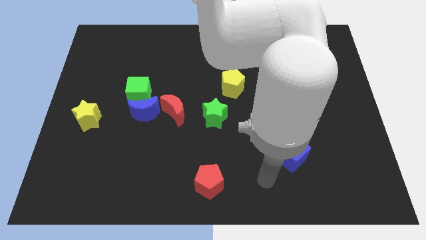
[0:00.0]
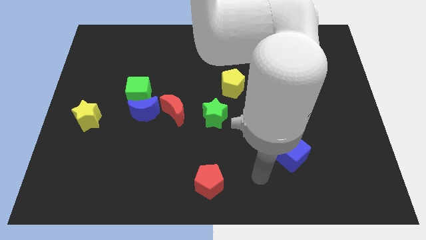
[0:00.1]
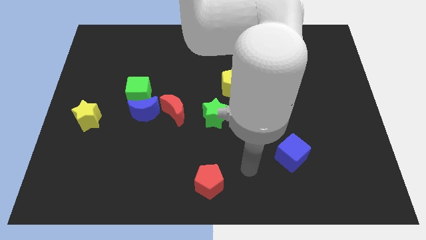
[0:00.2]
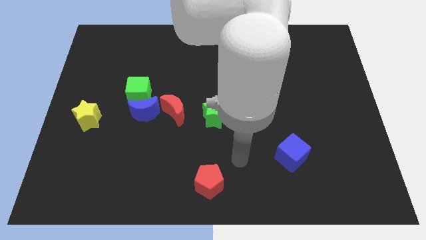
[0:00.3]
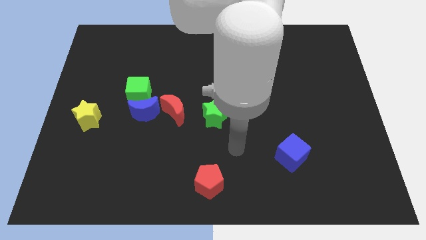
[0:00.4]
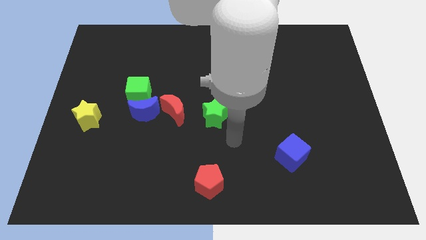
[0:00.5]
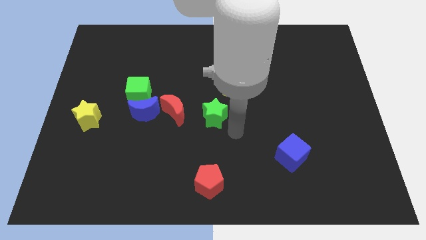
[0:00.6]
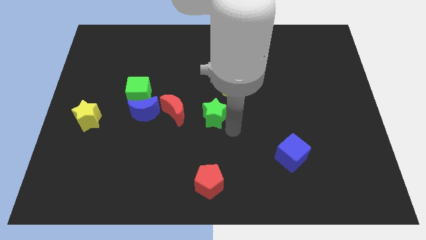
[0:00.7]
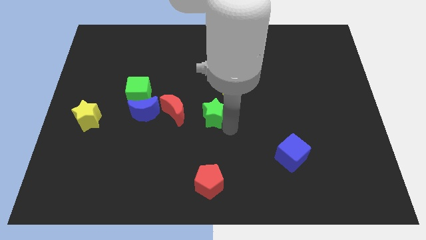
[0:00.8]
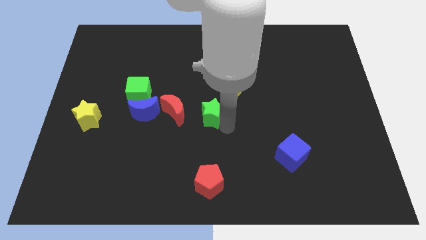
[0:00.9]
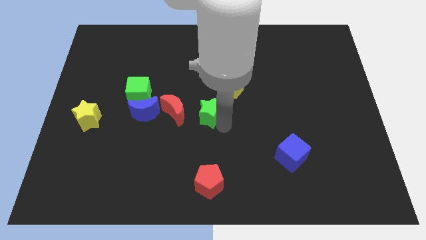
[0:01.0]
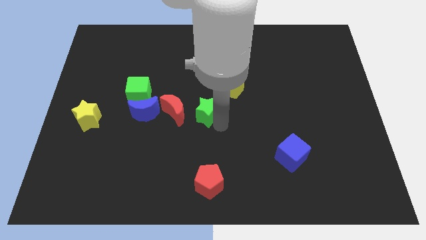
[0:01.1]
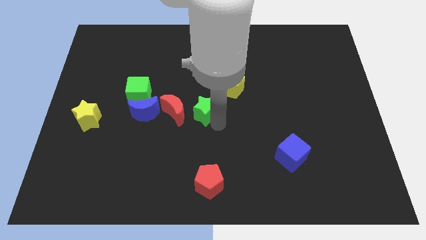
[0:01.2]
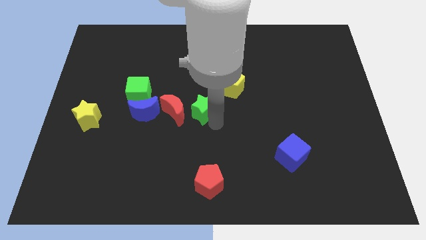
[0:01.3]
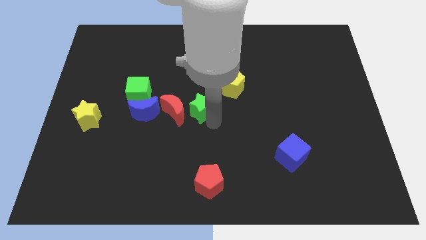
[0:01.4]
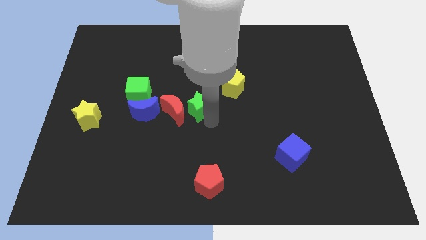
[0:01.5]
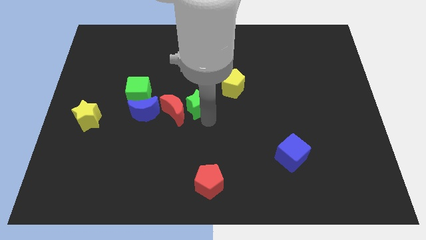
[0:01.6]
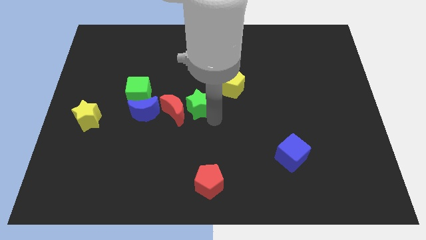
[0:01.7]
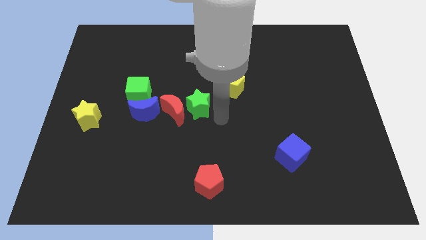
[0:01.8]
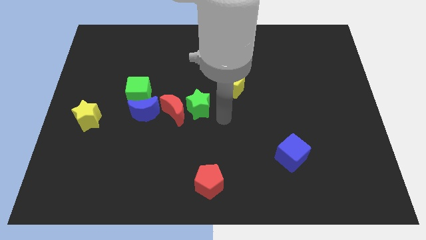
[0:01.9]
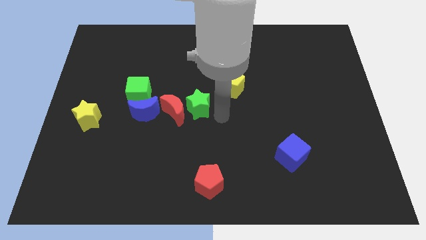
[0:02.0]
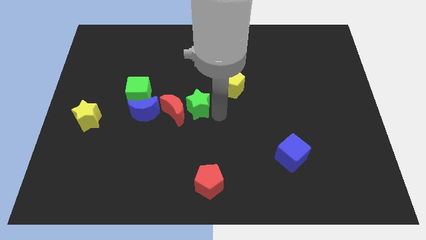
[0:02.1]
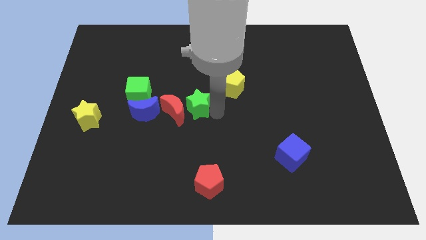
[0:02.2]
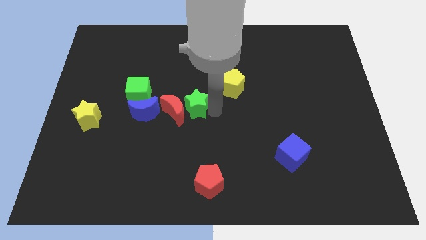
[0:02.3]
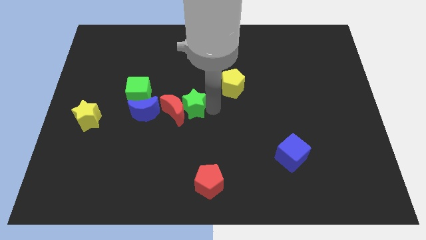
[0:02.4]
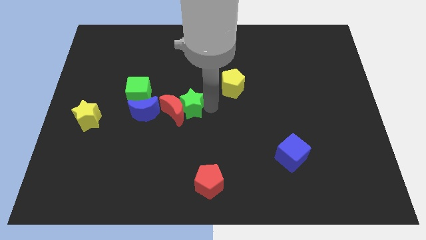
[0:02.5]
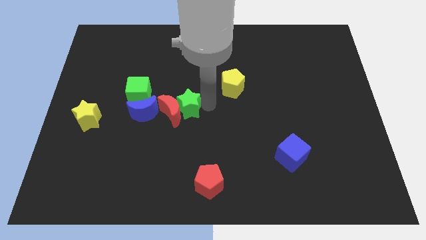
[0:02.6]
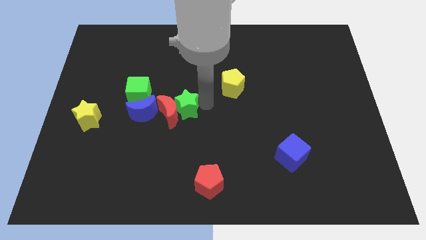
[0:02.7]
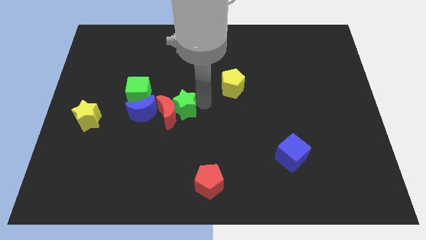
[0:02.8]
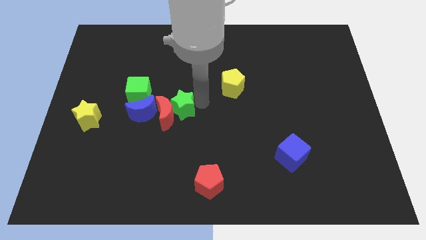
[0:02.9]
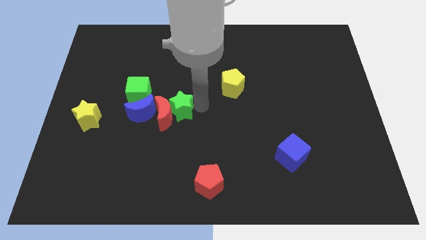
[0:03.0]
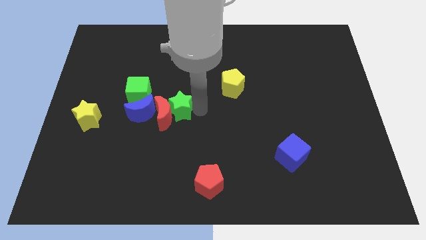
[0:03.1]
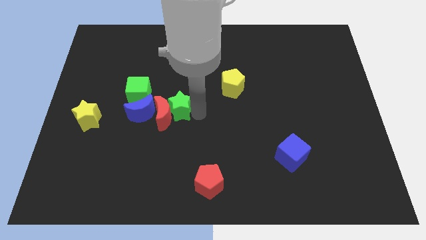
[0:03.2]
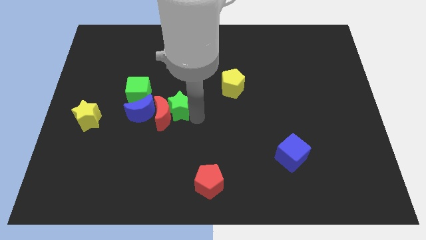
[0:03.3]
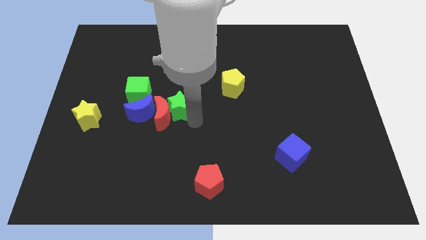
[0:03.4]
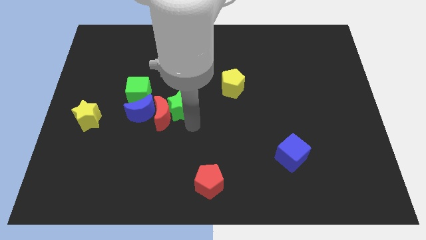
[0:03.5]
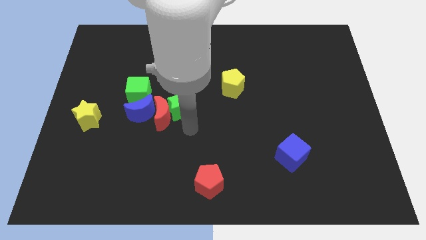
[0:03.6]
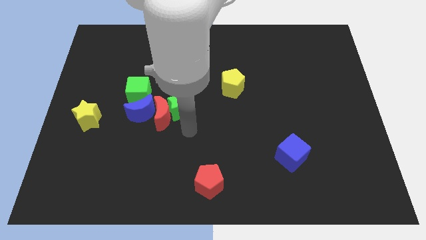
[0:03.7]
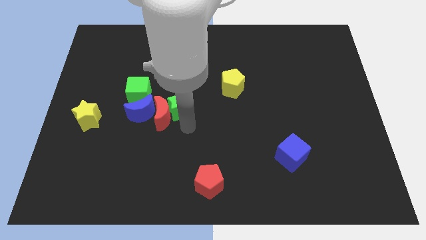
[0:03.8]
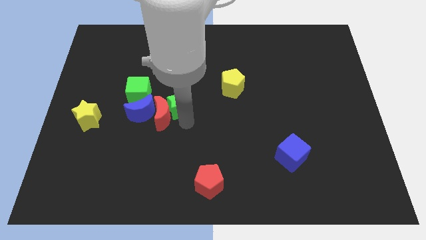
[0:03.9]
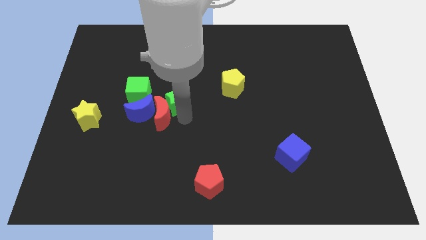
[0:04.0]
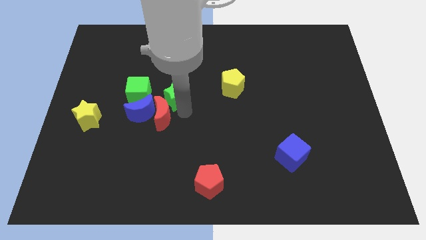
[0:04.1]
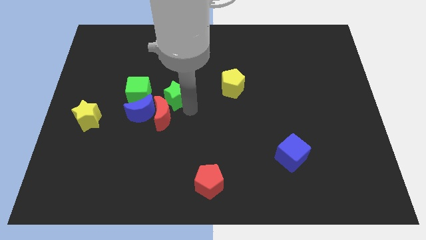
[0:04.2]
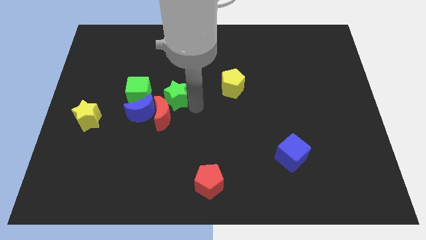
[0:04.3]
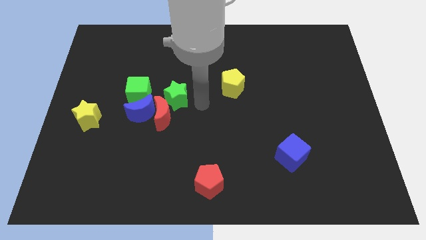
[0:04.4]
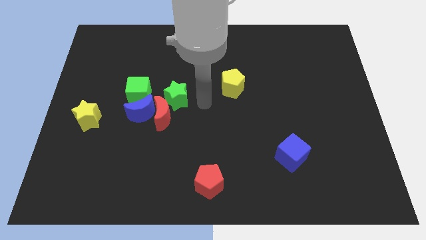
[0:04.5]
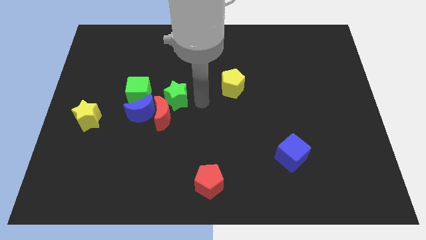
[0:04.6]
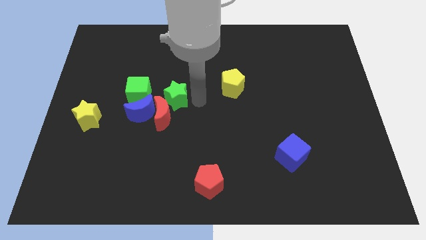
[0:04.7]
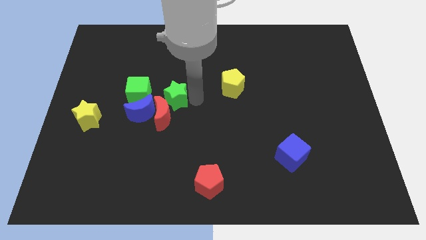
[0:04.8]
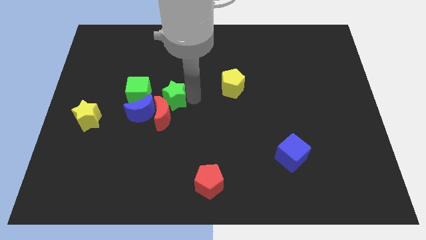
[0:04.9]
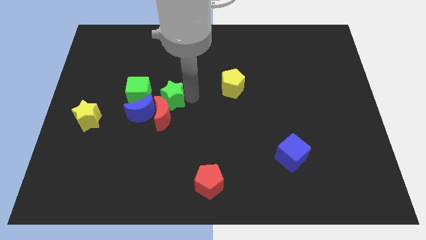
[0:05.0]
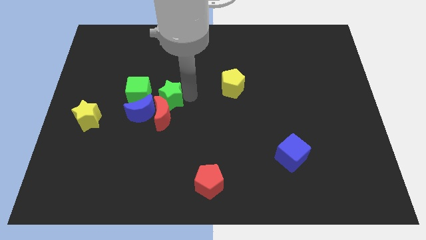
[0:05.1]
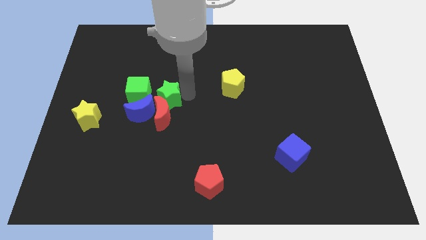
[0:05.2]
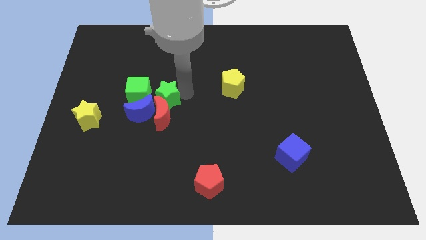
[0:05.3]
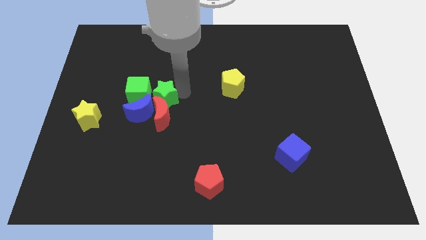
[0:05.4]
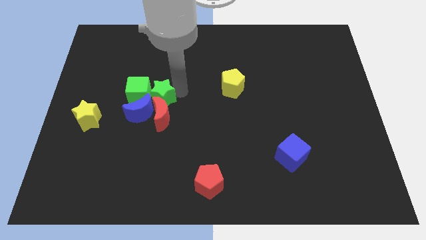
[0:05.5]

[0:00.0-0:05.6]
put the green star to the green cube

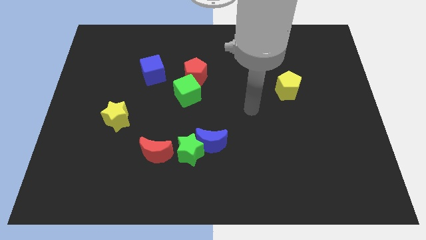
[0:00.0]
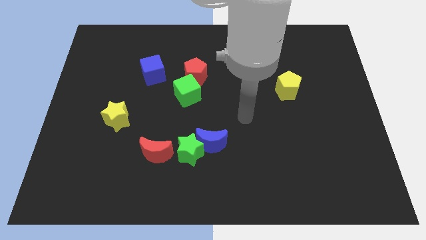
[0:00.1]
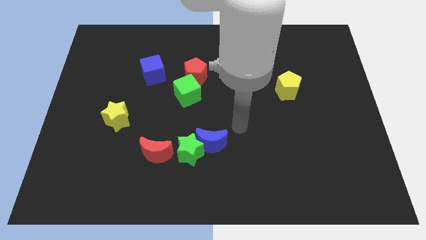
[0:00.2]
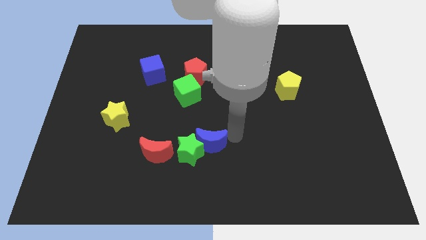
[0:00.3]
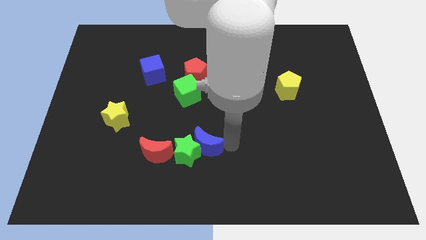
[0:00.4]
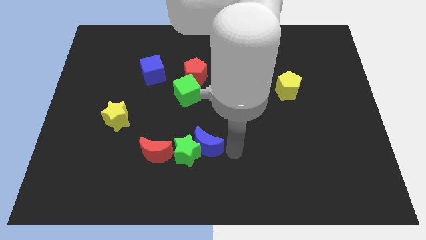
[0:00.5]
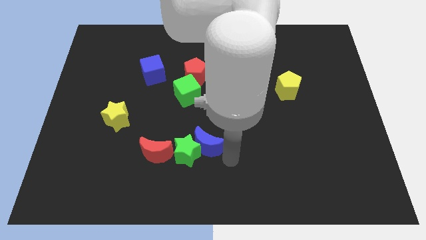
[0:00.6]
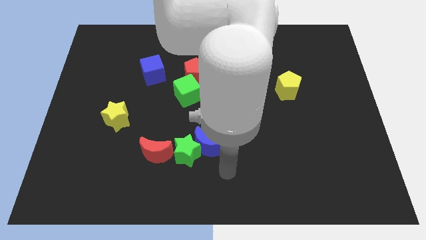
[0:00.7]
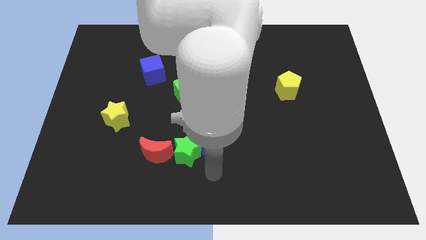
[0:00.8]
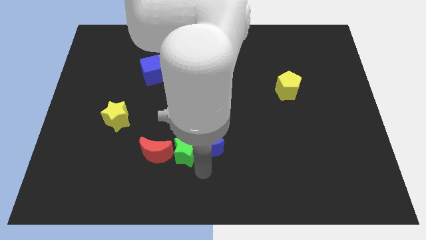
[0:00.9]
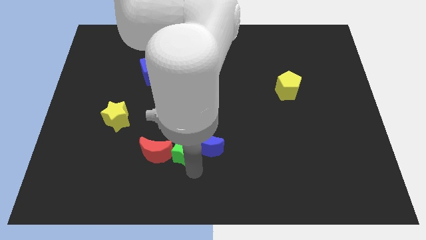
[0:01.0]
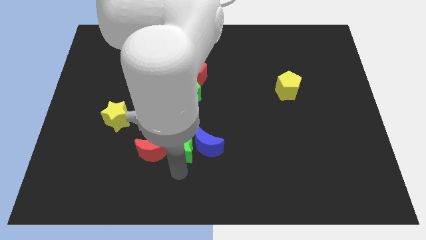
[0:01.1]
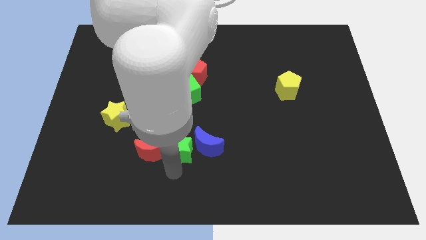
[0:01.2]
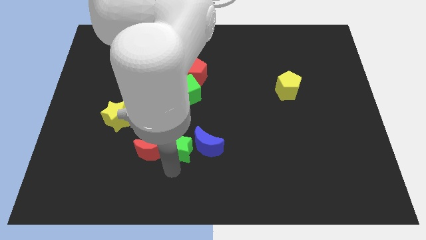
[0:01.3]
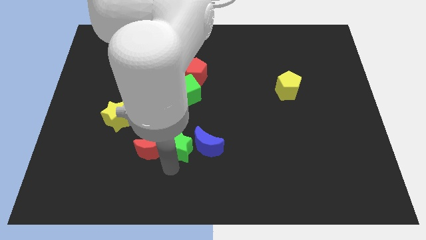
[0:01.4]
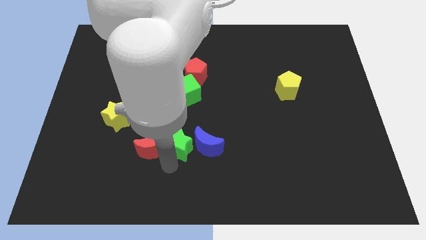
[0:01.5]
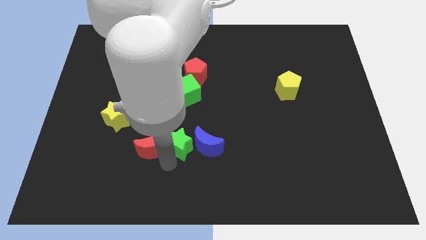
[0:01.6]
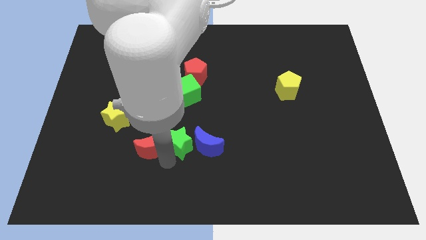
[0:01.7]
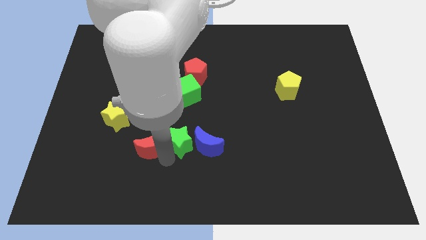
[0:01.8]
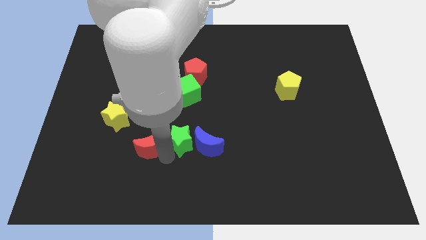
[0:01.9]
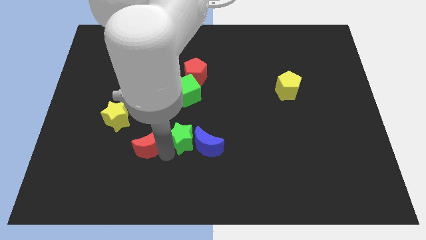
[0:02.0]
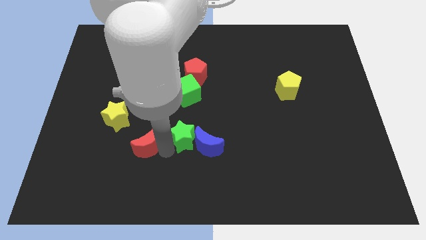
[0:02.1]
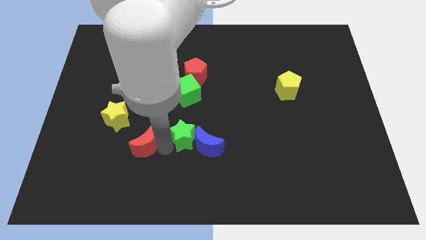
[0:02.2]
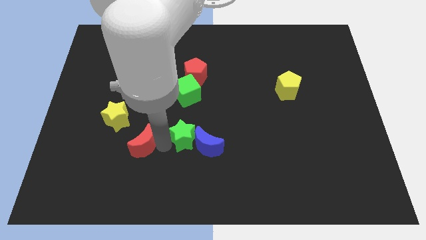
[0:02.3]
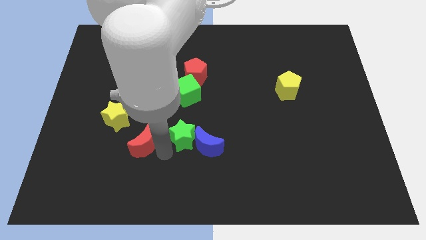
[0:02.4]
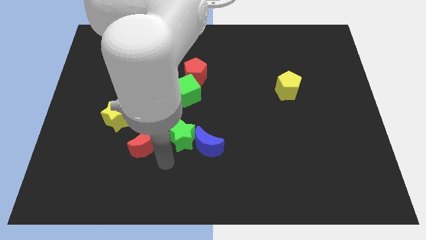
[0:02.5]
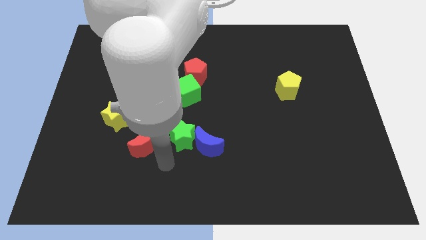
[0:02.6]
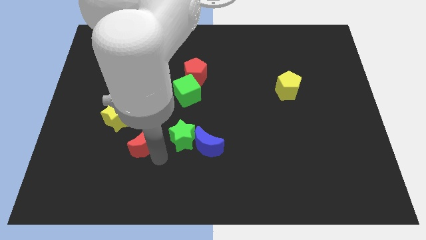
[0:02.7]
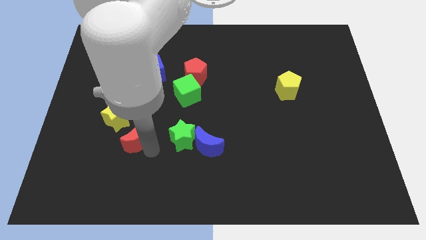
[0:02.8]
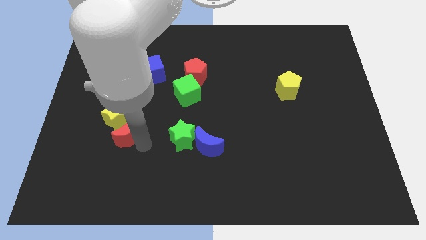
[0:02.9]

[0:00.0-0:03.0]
put the red moon towards the yellow star
